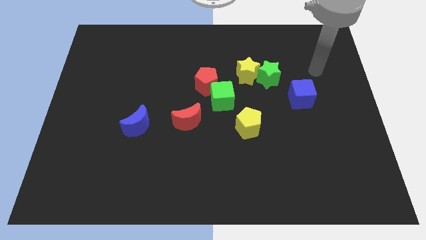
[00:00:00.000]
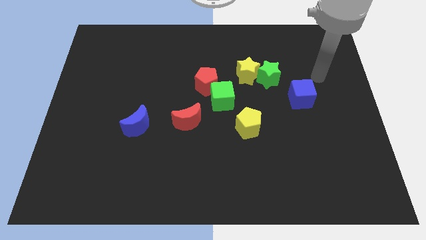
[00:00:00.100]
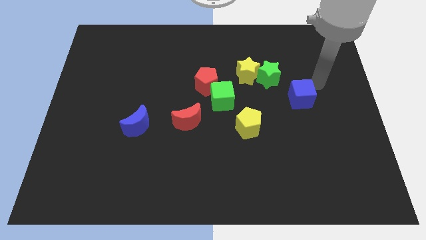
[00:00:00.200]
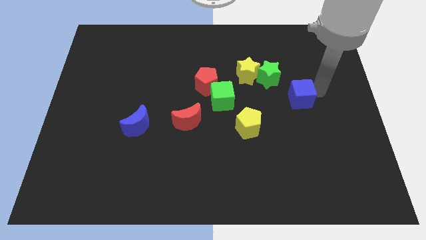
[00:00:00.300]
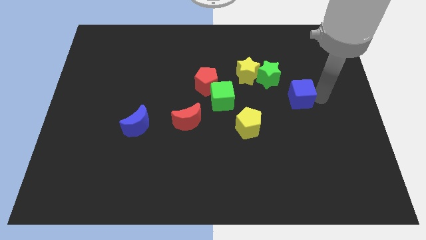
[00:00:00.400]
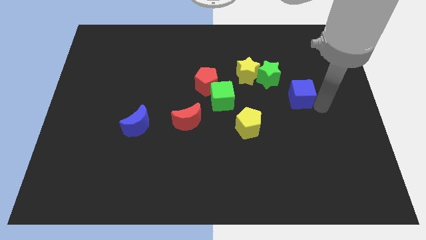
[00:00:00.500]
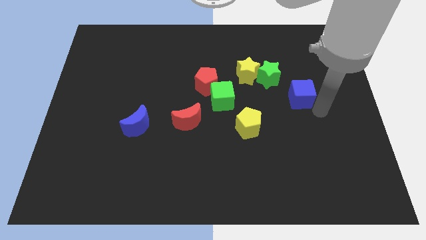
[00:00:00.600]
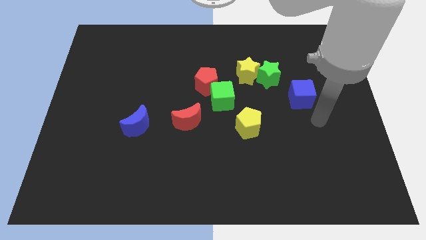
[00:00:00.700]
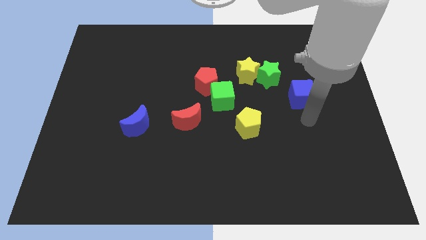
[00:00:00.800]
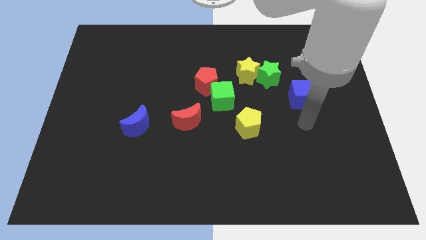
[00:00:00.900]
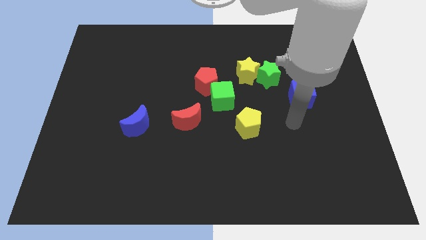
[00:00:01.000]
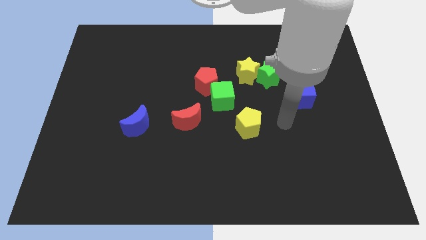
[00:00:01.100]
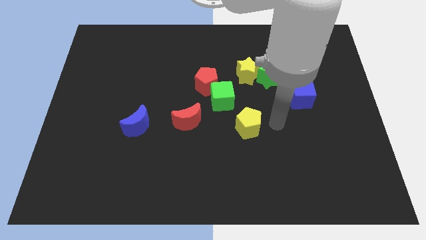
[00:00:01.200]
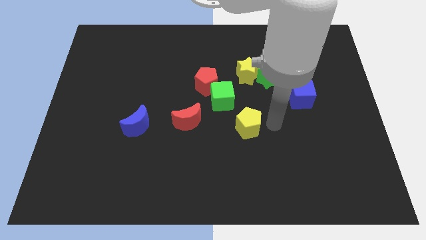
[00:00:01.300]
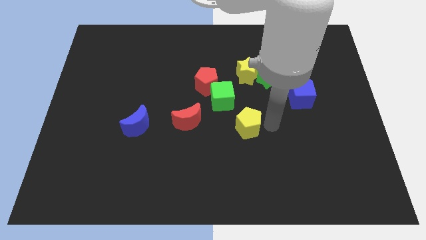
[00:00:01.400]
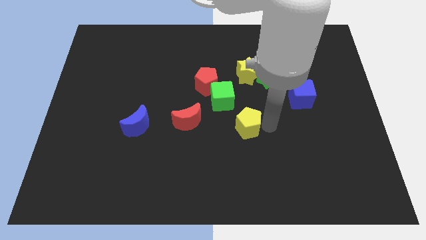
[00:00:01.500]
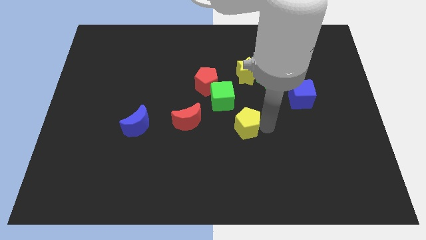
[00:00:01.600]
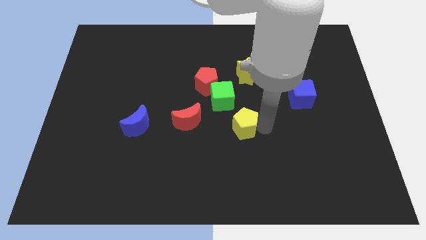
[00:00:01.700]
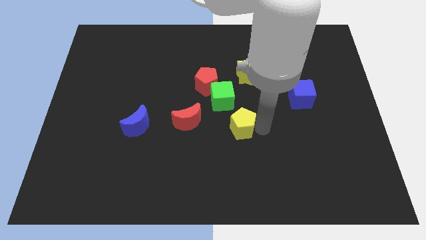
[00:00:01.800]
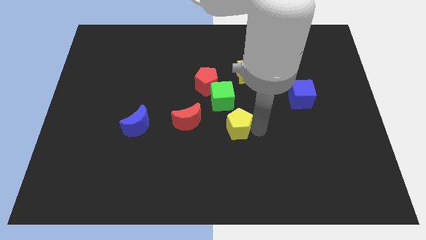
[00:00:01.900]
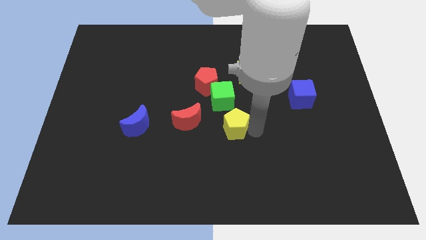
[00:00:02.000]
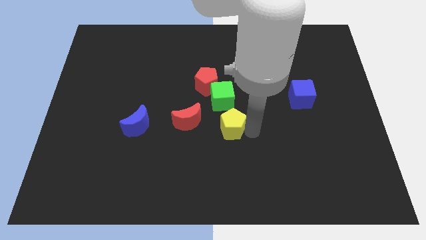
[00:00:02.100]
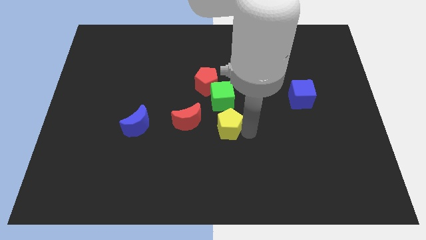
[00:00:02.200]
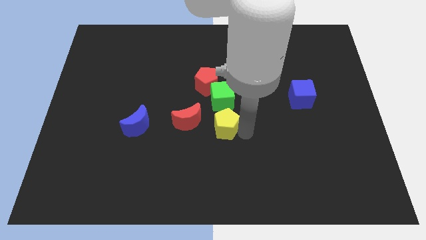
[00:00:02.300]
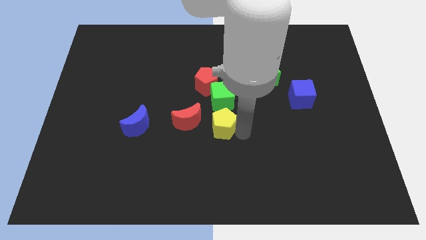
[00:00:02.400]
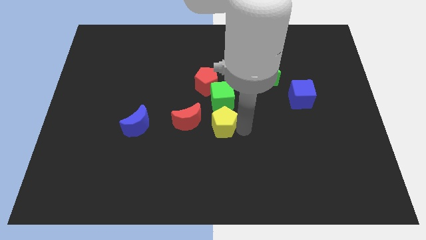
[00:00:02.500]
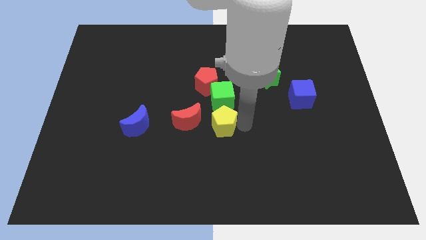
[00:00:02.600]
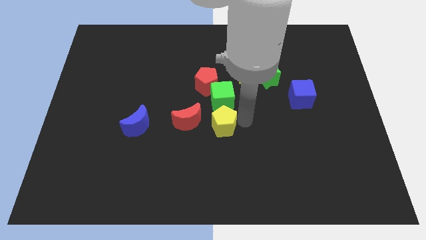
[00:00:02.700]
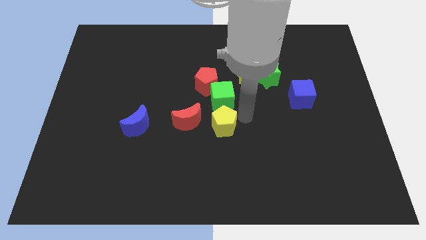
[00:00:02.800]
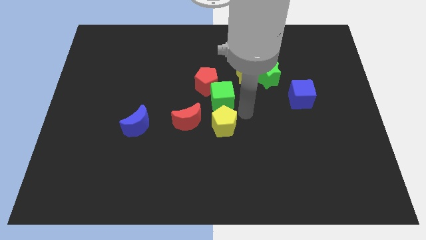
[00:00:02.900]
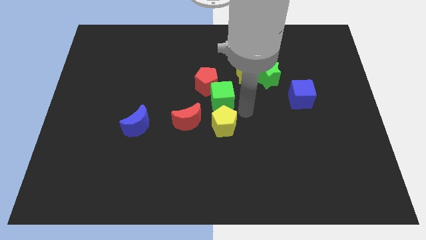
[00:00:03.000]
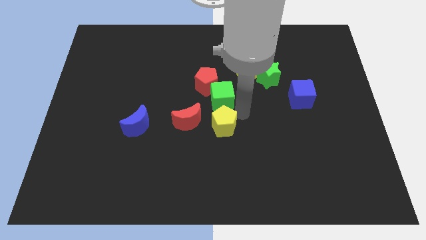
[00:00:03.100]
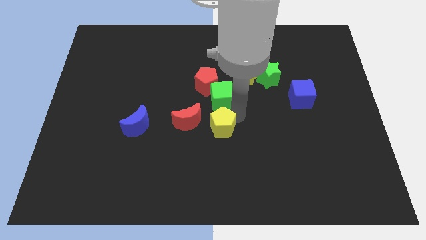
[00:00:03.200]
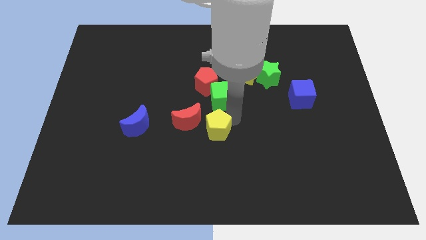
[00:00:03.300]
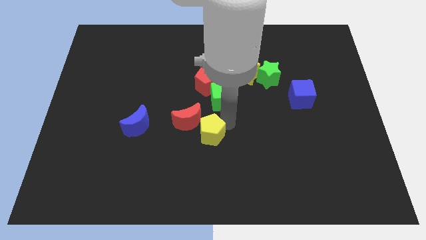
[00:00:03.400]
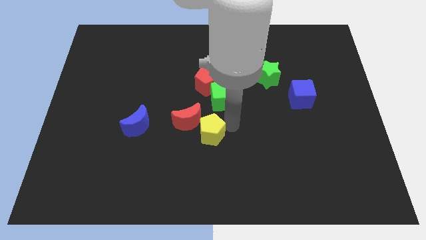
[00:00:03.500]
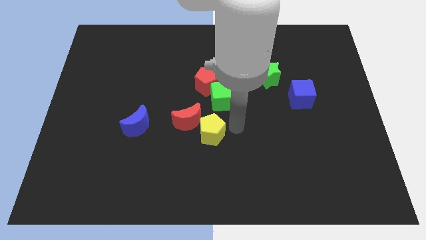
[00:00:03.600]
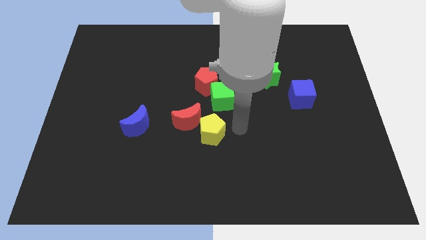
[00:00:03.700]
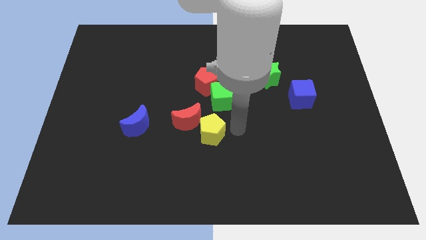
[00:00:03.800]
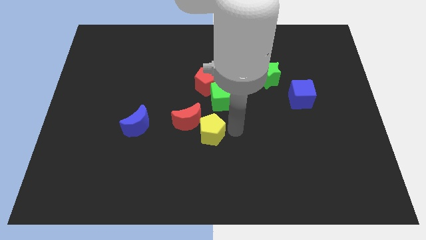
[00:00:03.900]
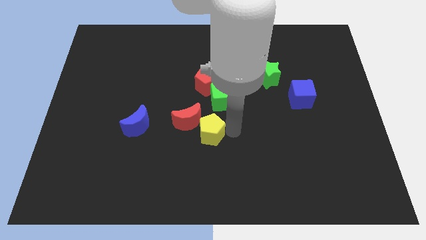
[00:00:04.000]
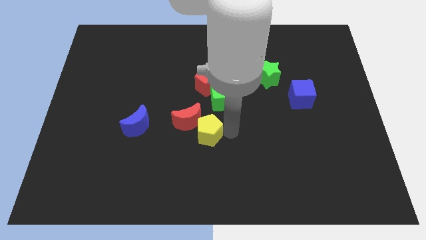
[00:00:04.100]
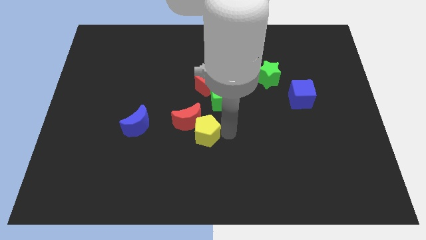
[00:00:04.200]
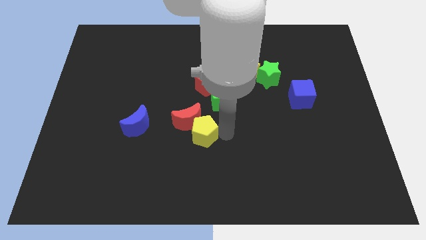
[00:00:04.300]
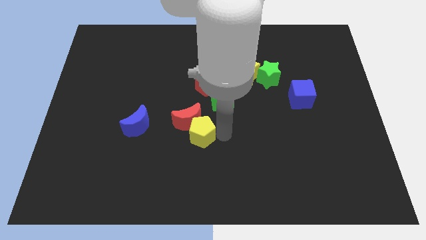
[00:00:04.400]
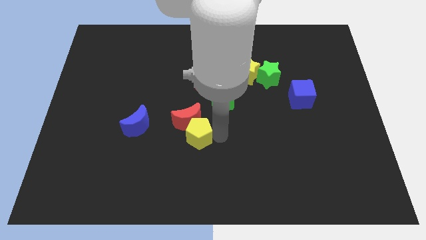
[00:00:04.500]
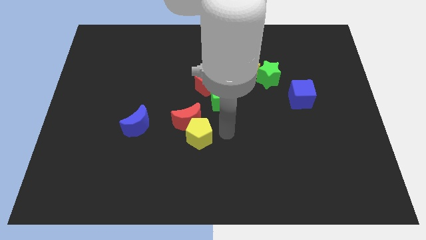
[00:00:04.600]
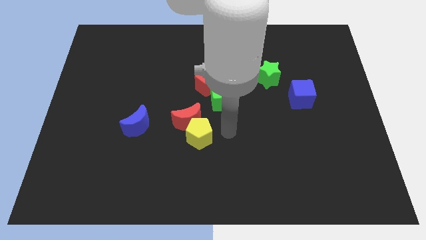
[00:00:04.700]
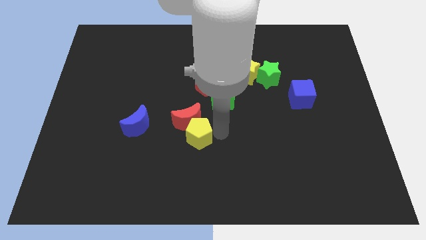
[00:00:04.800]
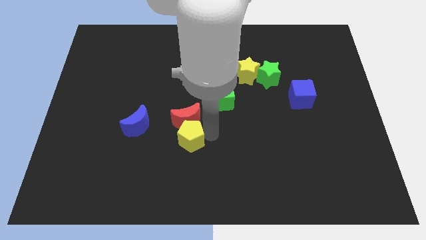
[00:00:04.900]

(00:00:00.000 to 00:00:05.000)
push the yellow pentagon to the bottom left side of the red moon

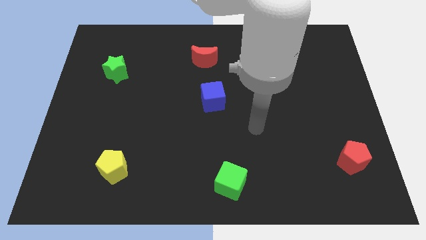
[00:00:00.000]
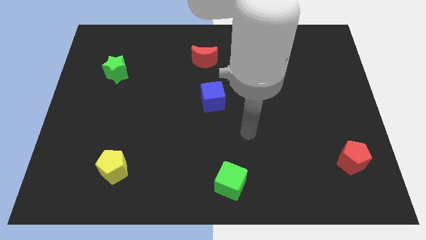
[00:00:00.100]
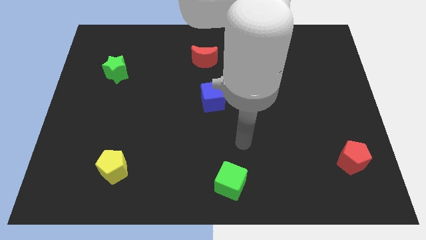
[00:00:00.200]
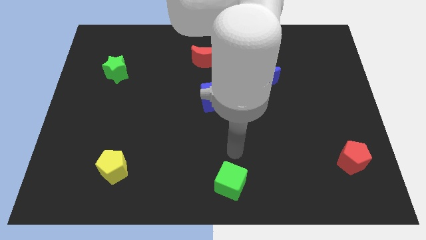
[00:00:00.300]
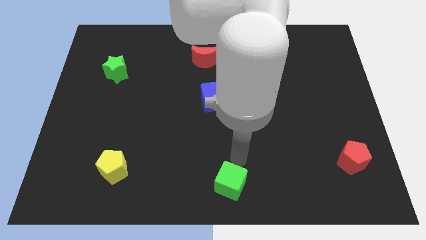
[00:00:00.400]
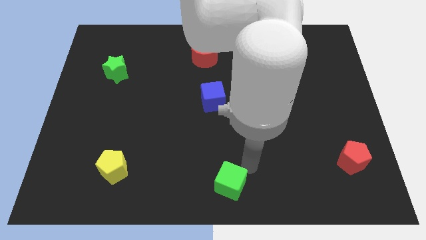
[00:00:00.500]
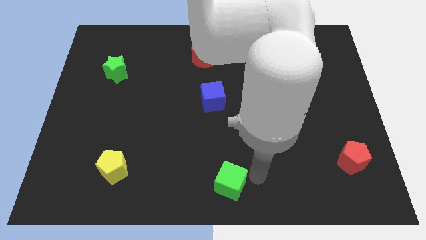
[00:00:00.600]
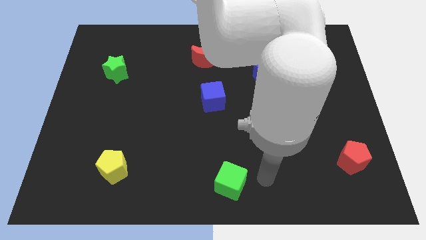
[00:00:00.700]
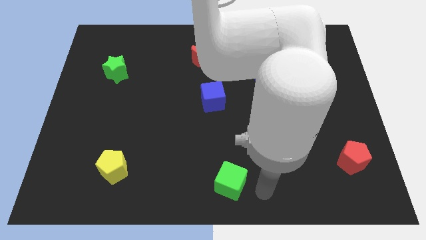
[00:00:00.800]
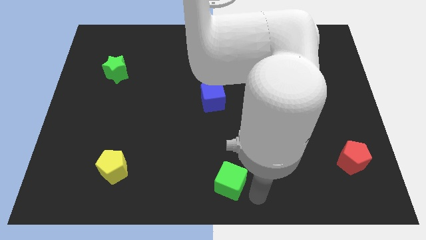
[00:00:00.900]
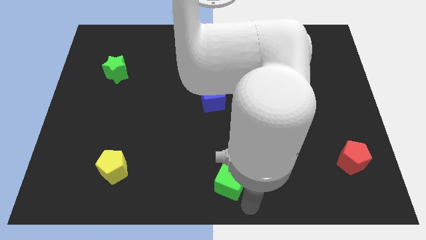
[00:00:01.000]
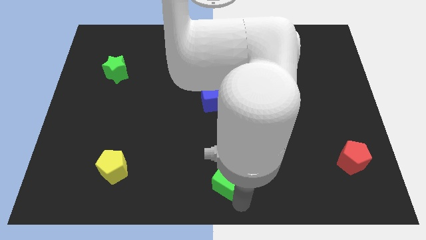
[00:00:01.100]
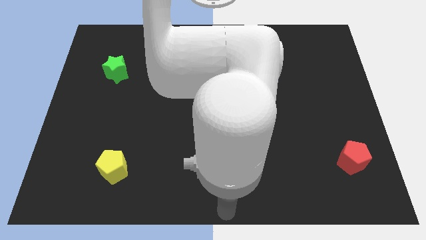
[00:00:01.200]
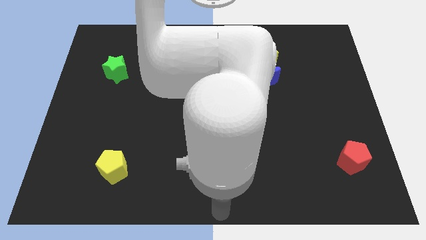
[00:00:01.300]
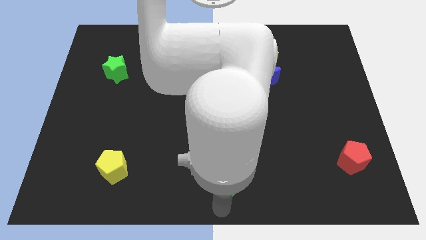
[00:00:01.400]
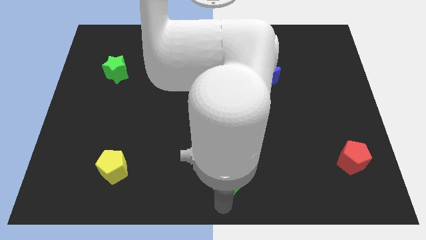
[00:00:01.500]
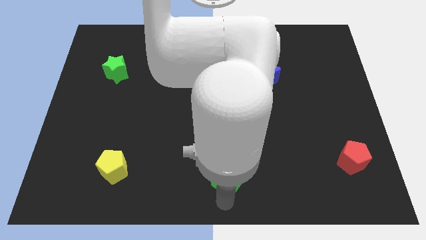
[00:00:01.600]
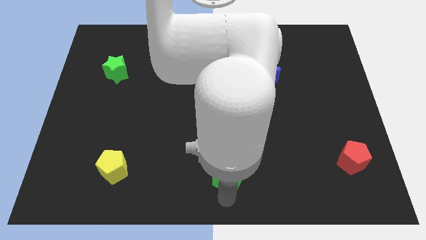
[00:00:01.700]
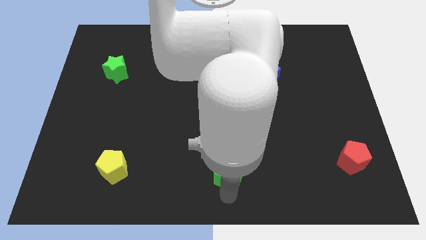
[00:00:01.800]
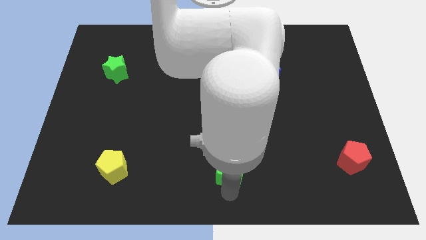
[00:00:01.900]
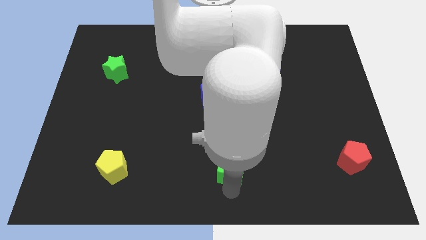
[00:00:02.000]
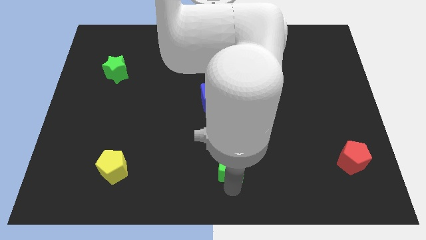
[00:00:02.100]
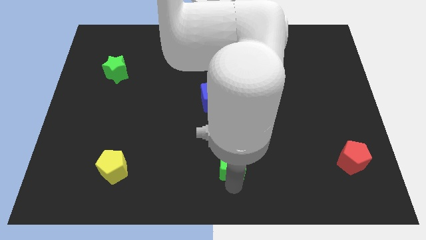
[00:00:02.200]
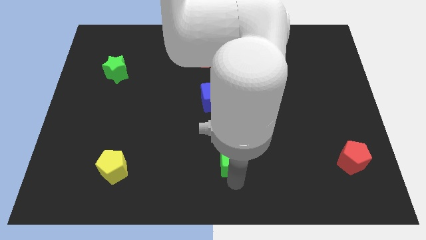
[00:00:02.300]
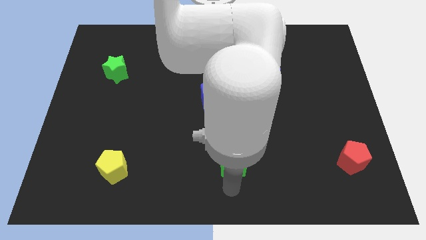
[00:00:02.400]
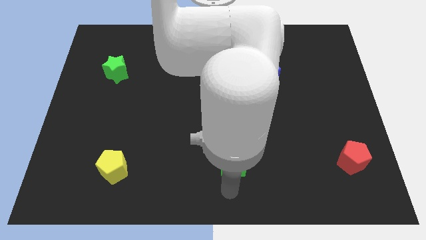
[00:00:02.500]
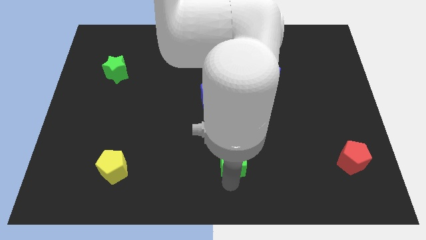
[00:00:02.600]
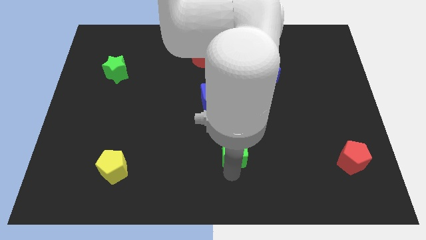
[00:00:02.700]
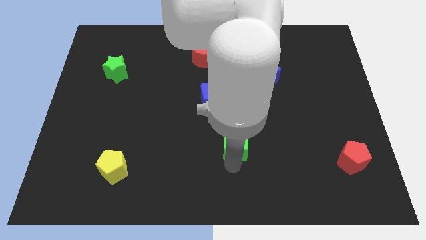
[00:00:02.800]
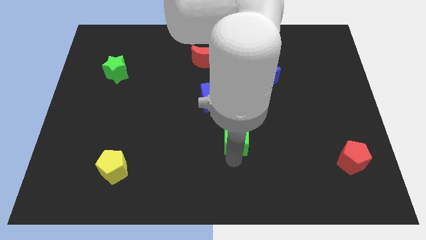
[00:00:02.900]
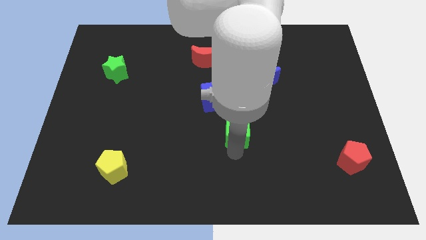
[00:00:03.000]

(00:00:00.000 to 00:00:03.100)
move the green cube diagonally down and to the right of the blue cube
